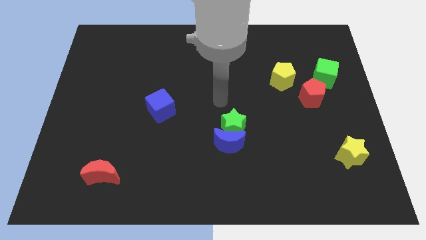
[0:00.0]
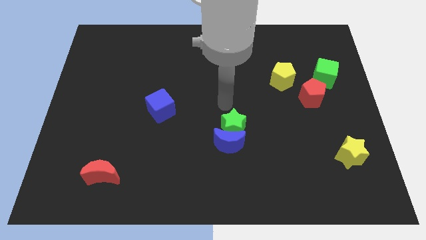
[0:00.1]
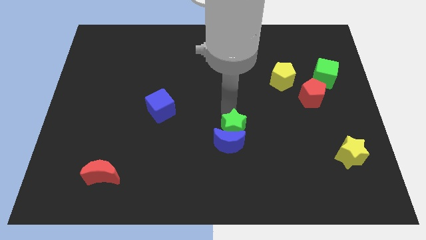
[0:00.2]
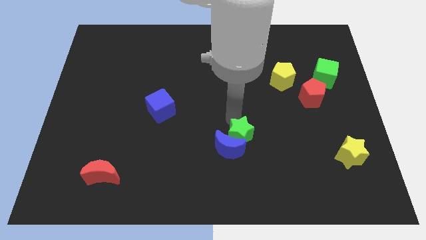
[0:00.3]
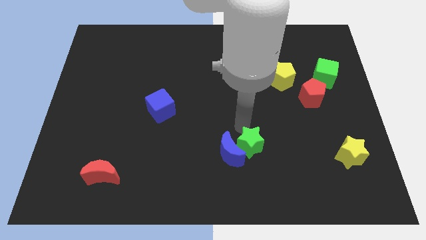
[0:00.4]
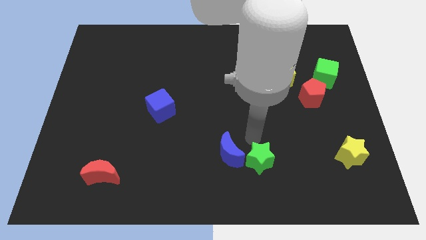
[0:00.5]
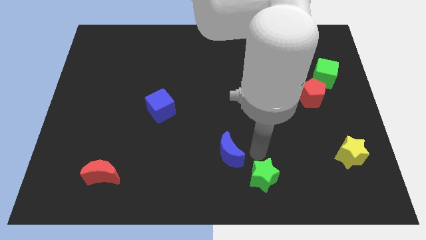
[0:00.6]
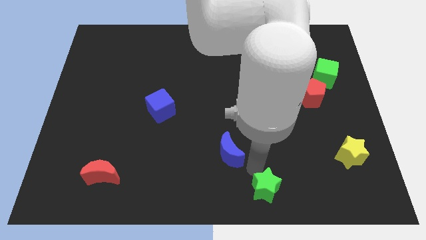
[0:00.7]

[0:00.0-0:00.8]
pull the blue moon apart from the green star

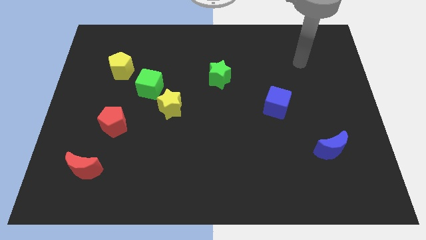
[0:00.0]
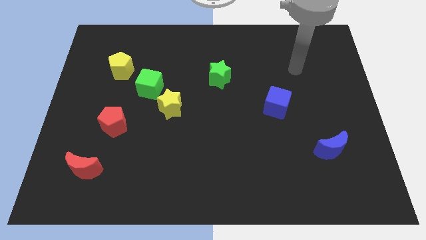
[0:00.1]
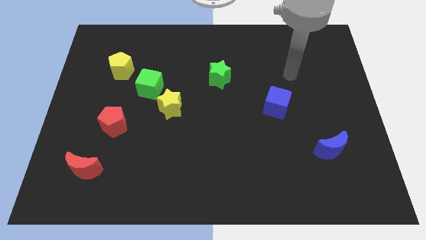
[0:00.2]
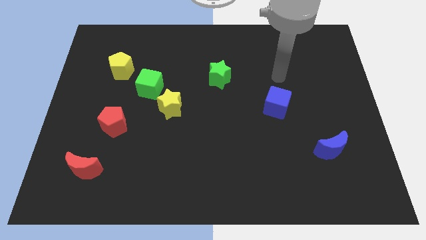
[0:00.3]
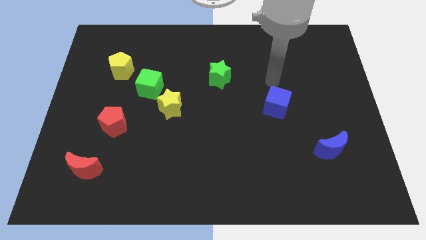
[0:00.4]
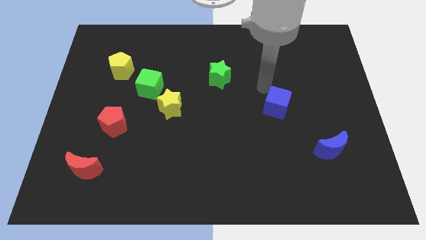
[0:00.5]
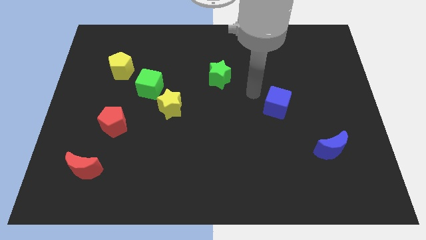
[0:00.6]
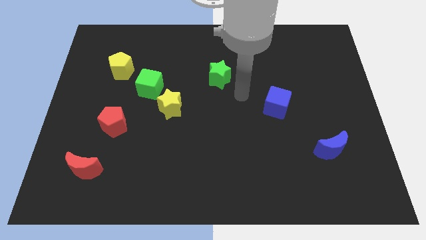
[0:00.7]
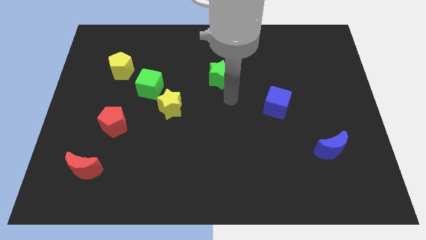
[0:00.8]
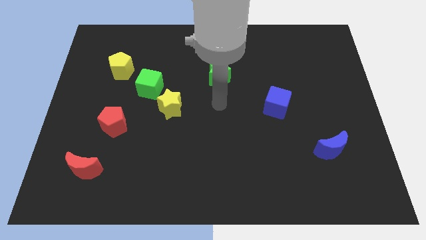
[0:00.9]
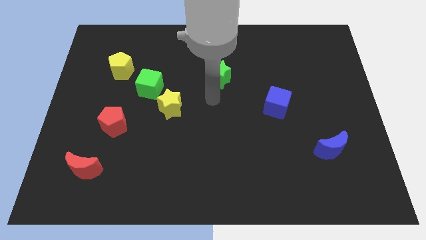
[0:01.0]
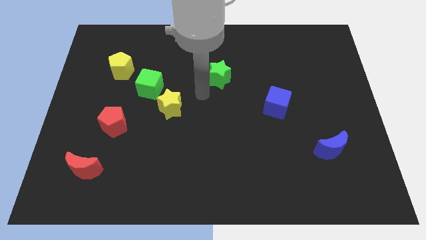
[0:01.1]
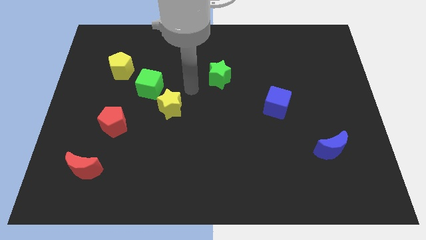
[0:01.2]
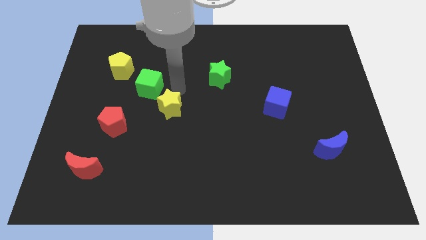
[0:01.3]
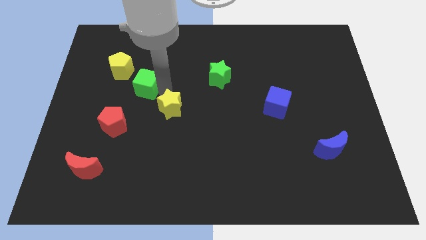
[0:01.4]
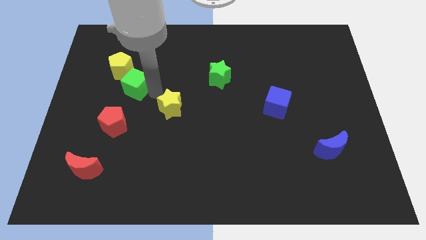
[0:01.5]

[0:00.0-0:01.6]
move the yellow star away from the green cube

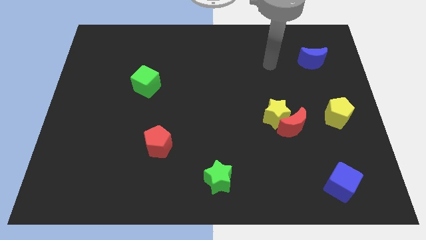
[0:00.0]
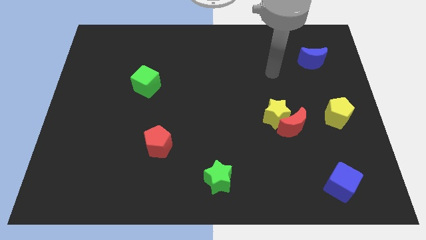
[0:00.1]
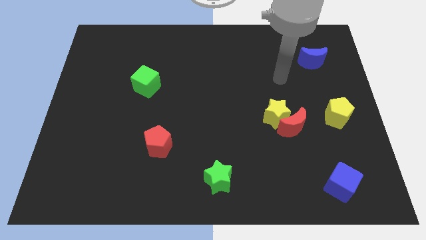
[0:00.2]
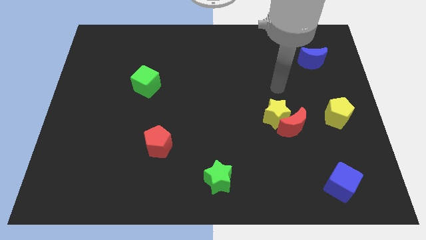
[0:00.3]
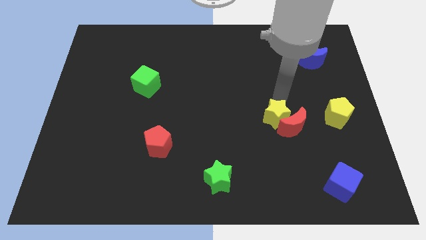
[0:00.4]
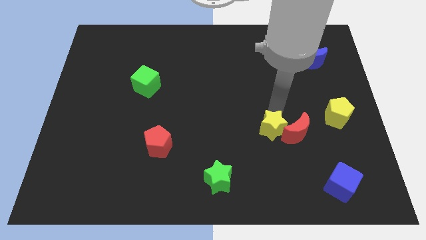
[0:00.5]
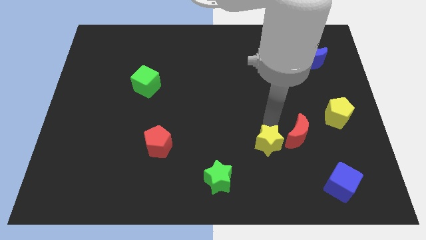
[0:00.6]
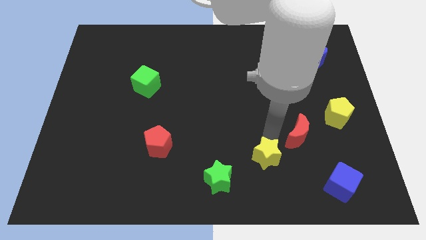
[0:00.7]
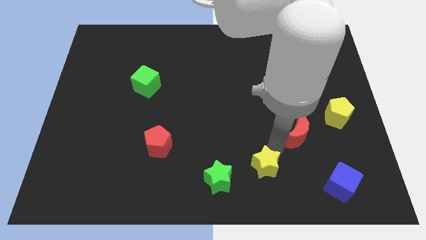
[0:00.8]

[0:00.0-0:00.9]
separate the red moon from the yellow star

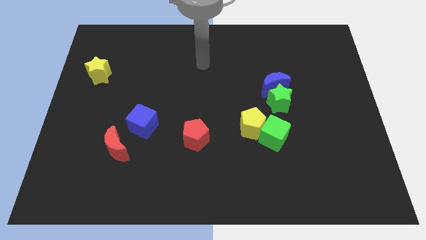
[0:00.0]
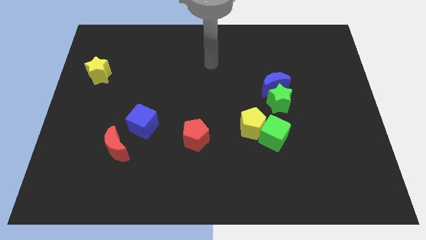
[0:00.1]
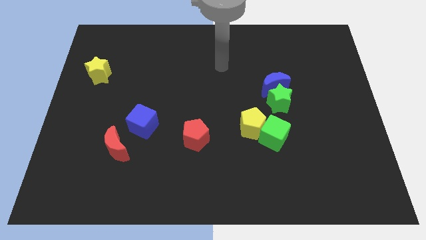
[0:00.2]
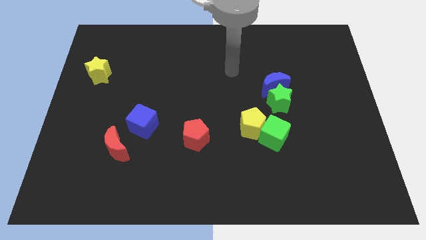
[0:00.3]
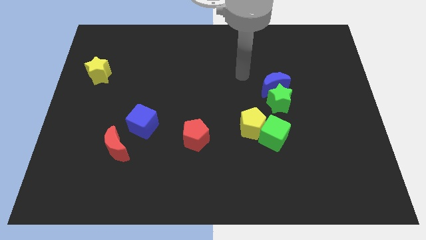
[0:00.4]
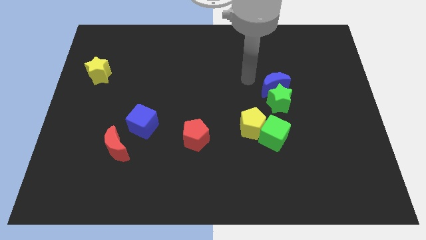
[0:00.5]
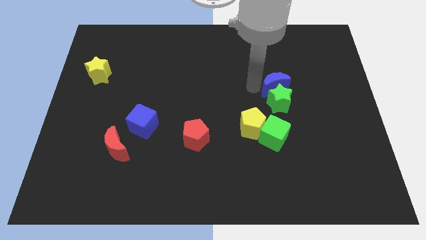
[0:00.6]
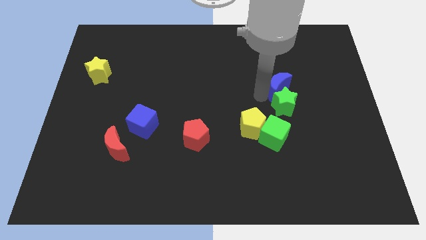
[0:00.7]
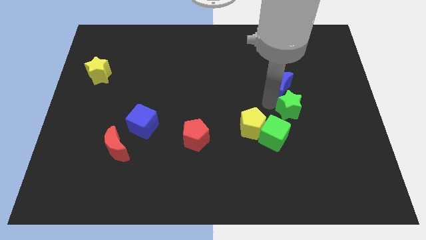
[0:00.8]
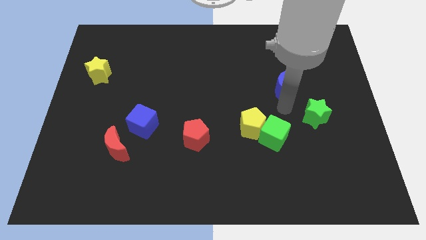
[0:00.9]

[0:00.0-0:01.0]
separate the blue moon from the green star

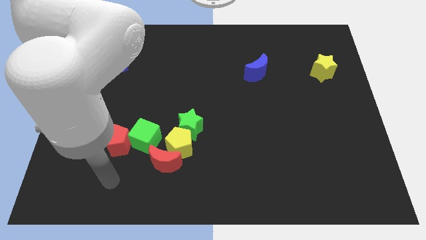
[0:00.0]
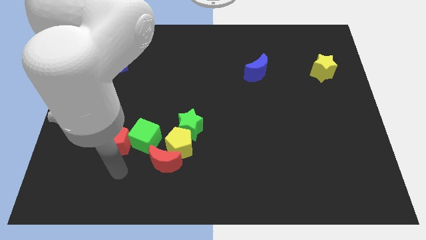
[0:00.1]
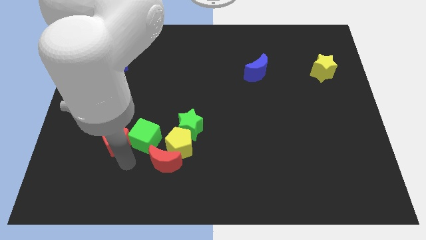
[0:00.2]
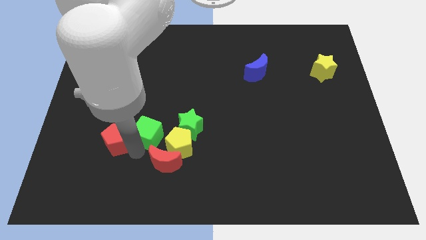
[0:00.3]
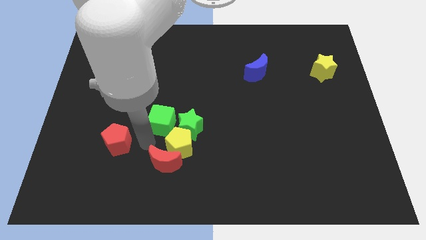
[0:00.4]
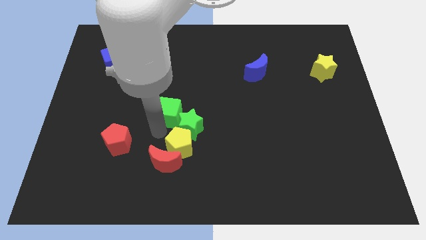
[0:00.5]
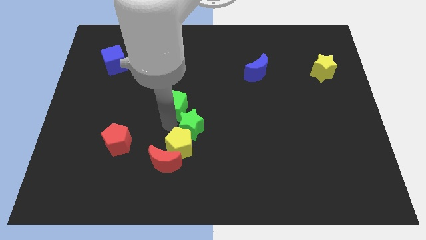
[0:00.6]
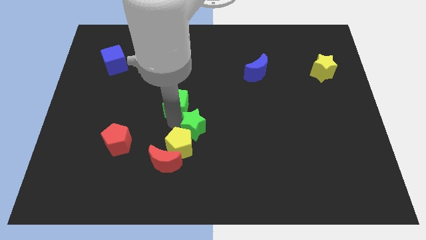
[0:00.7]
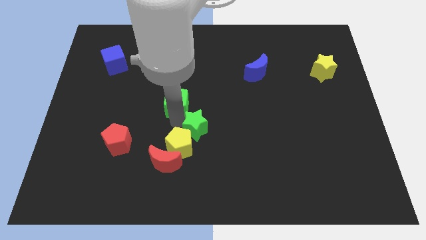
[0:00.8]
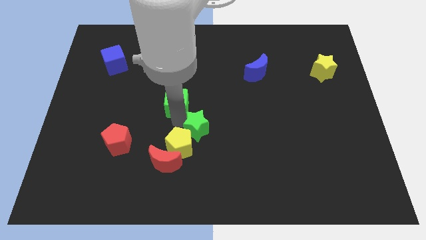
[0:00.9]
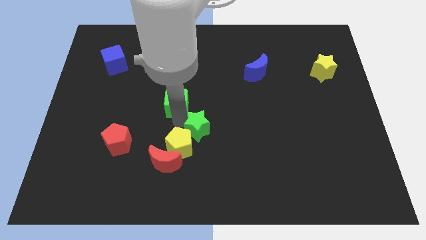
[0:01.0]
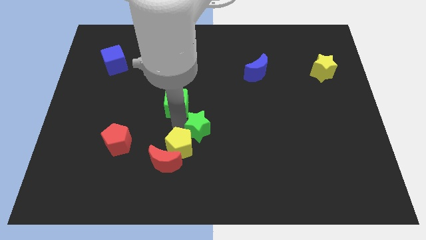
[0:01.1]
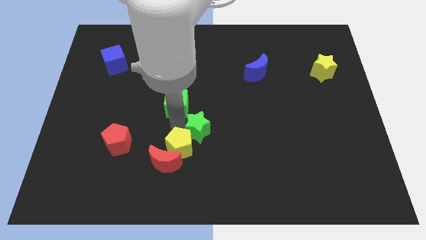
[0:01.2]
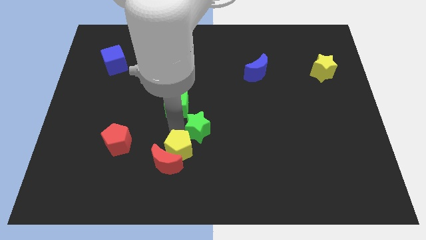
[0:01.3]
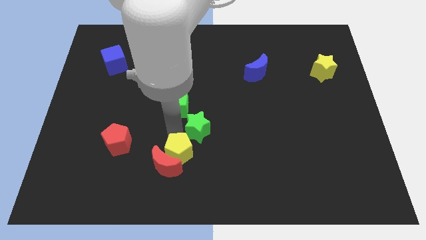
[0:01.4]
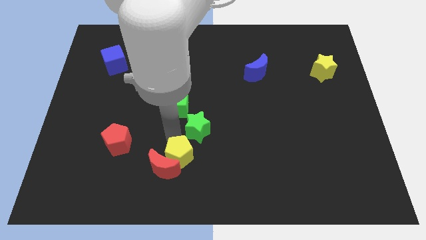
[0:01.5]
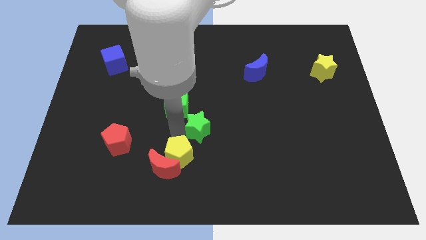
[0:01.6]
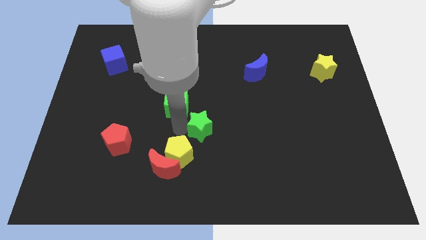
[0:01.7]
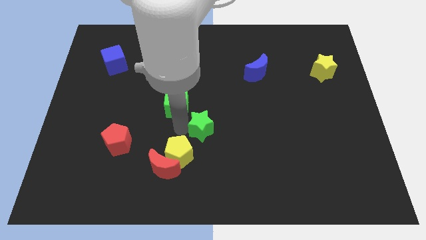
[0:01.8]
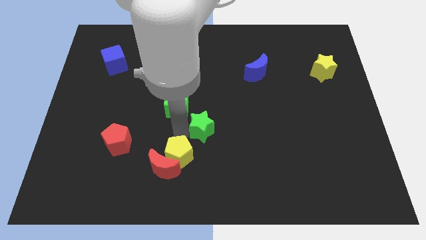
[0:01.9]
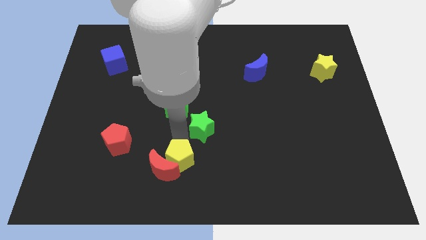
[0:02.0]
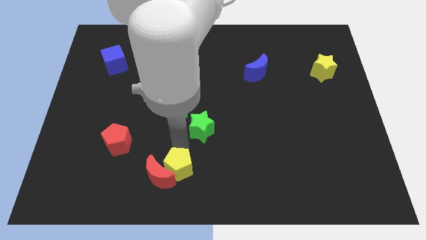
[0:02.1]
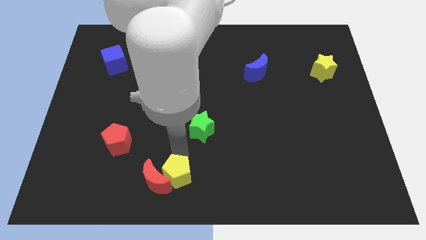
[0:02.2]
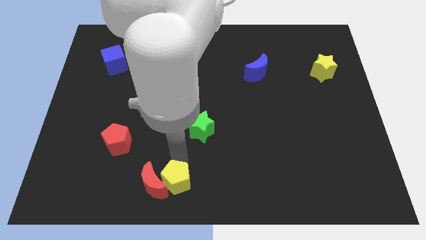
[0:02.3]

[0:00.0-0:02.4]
pull the yellow pentagon apart from the group

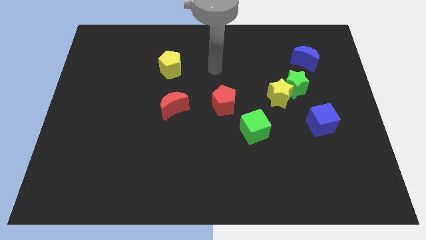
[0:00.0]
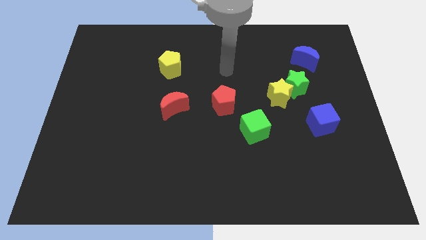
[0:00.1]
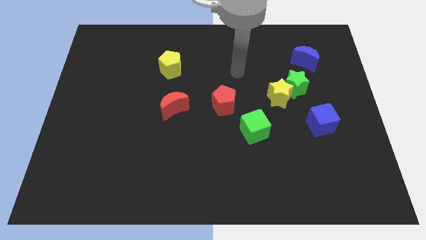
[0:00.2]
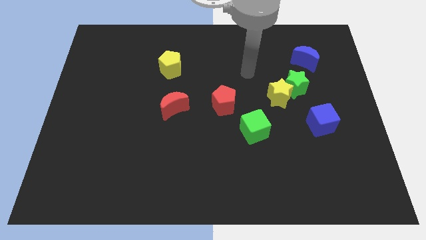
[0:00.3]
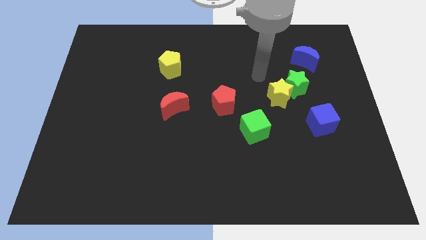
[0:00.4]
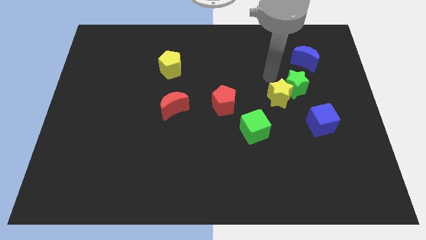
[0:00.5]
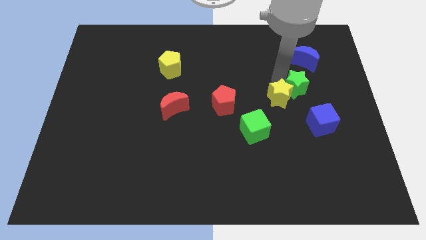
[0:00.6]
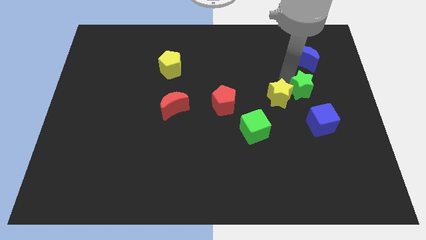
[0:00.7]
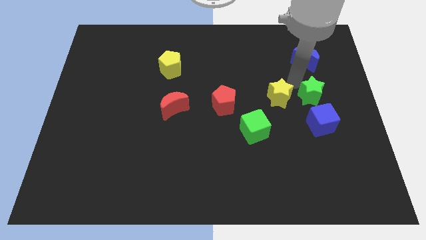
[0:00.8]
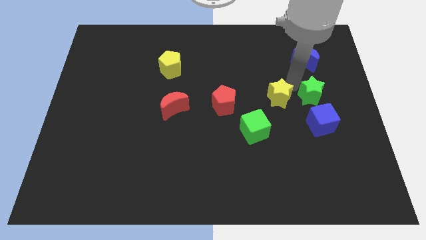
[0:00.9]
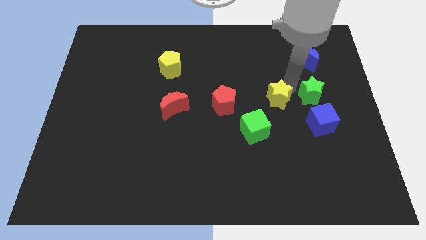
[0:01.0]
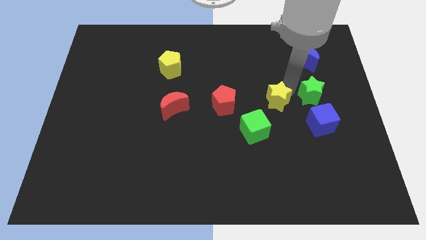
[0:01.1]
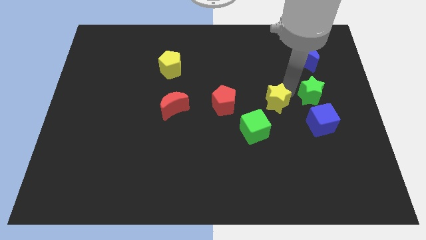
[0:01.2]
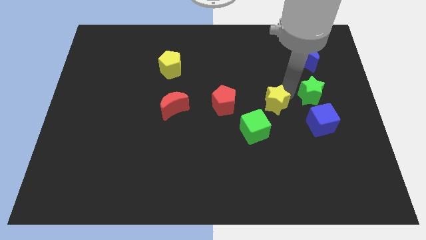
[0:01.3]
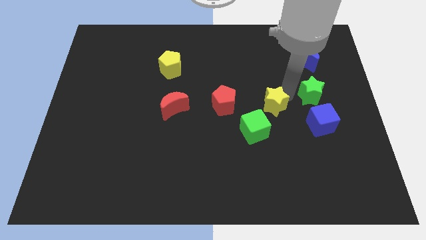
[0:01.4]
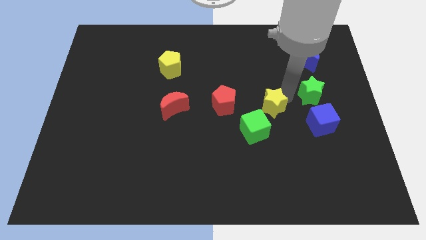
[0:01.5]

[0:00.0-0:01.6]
move the yellow star away from the green star

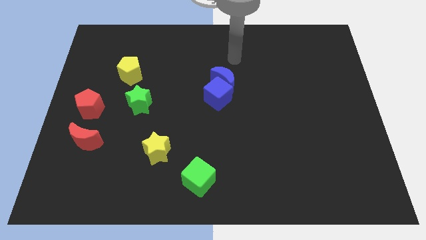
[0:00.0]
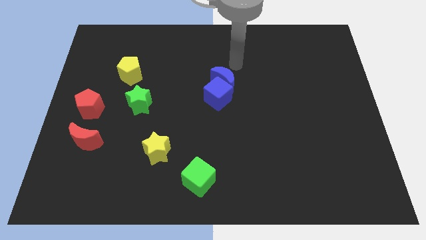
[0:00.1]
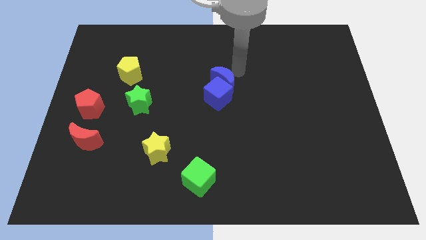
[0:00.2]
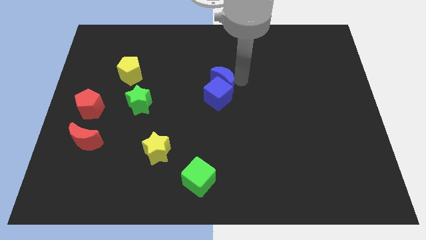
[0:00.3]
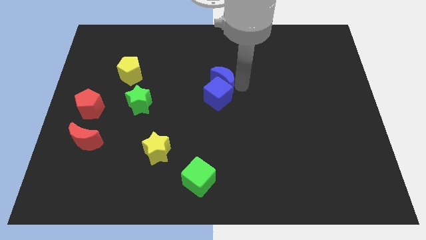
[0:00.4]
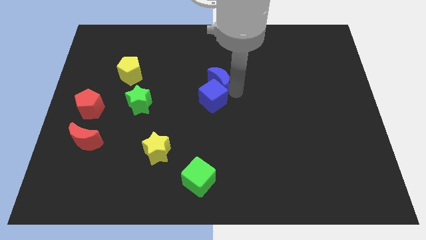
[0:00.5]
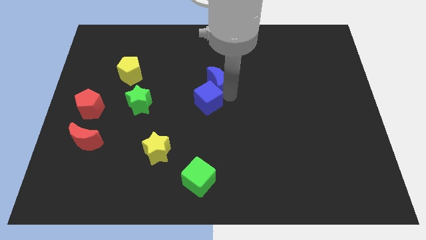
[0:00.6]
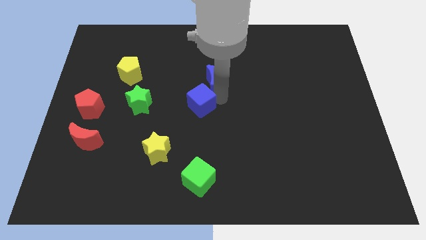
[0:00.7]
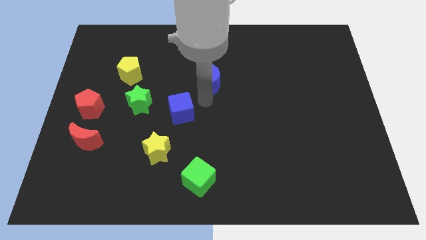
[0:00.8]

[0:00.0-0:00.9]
separate the blue moon from the blue cube
